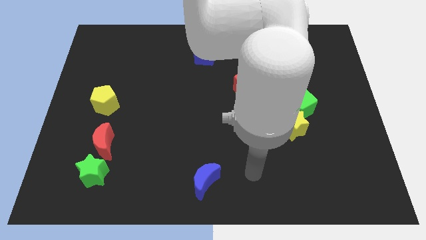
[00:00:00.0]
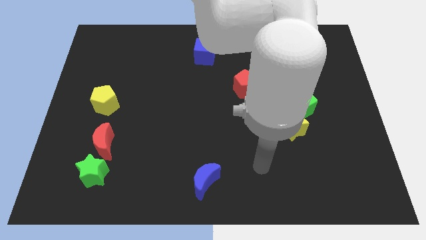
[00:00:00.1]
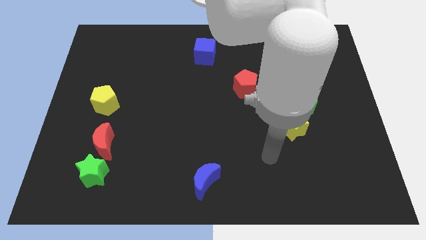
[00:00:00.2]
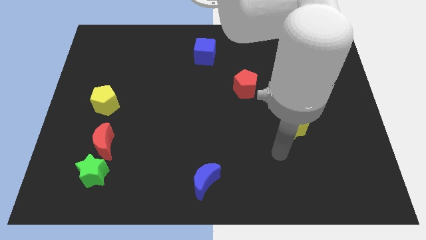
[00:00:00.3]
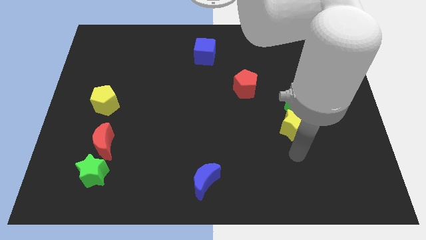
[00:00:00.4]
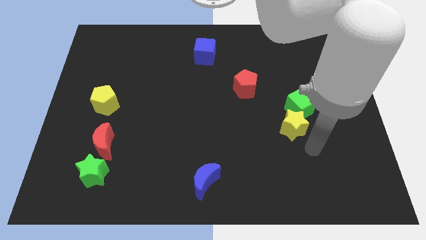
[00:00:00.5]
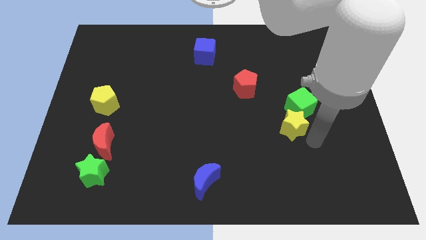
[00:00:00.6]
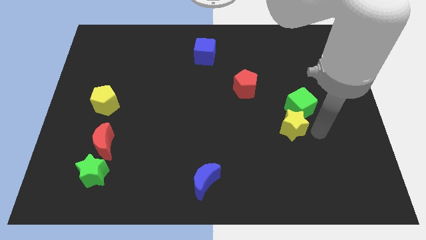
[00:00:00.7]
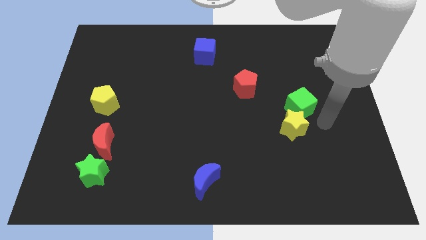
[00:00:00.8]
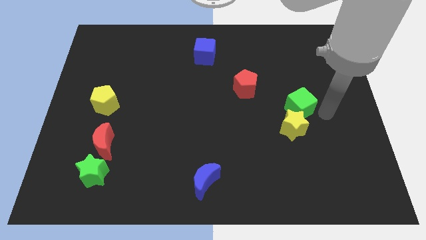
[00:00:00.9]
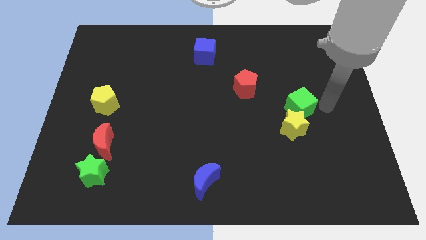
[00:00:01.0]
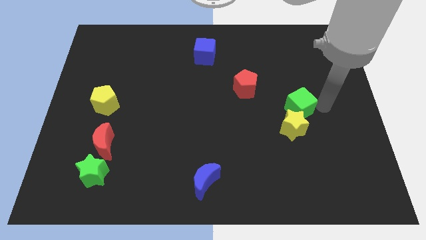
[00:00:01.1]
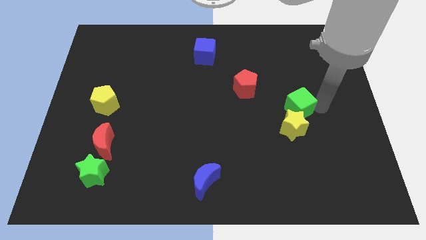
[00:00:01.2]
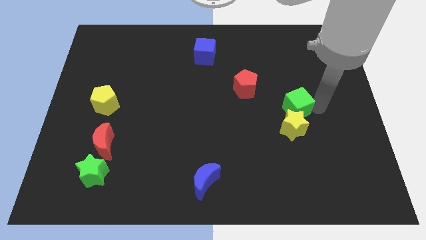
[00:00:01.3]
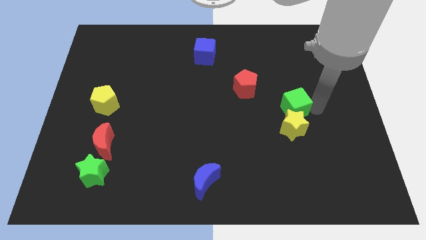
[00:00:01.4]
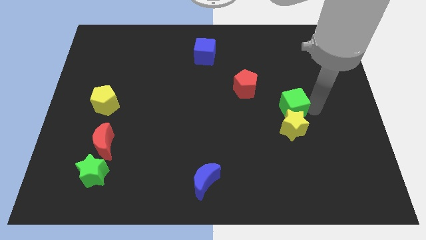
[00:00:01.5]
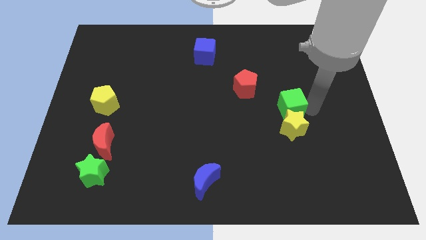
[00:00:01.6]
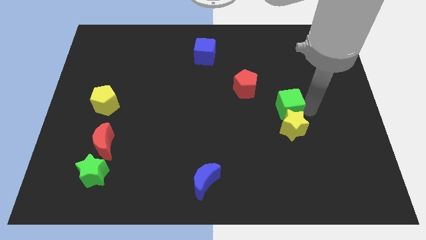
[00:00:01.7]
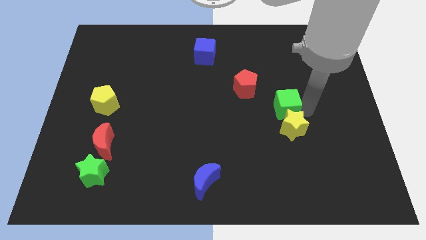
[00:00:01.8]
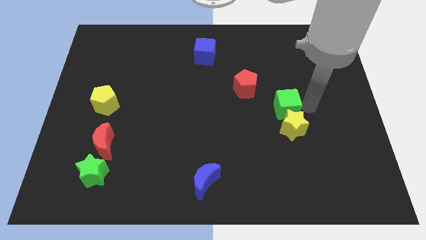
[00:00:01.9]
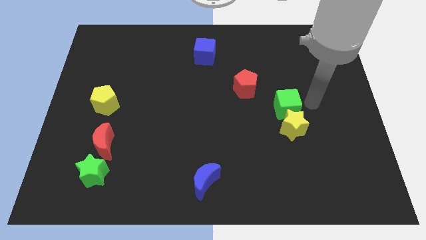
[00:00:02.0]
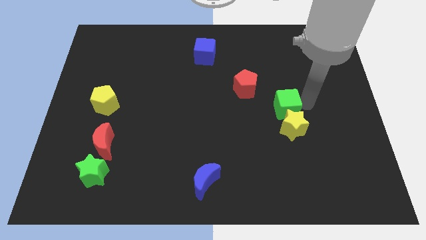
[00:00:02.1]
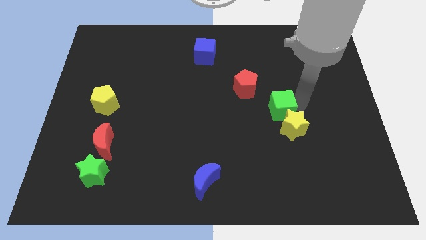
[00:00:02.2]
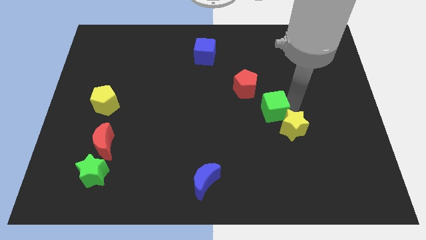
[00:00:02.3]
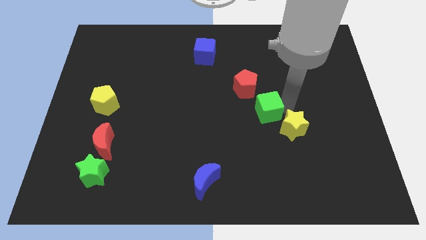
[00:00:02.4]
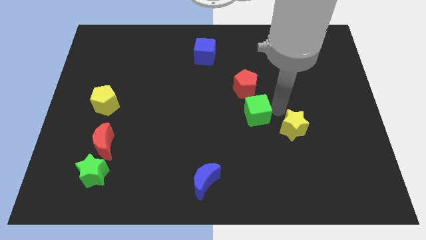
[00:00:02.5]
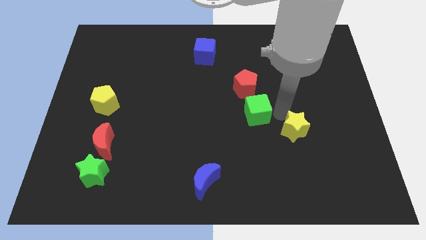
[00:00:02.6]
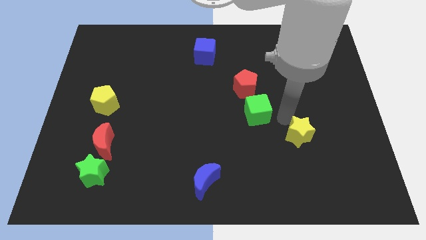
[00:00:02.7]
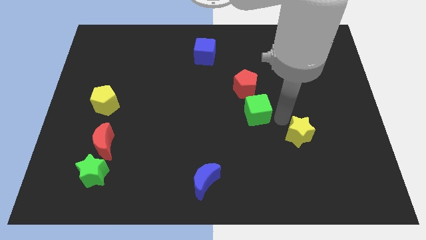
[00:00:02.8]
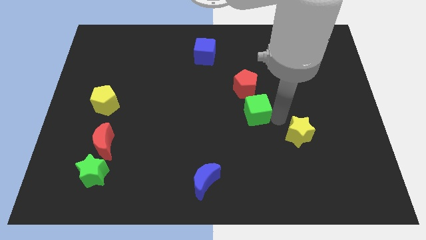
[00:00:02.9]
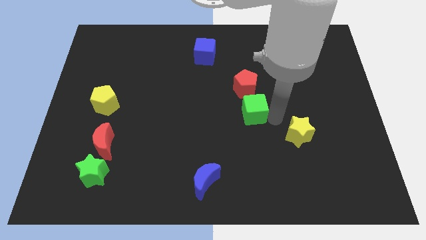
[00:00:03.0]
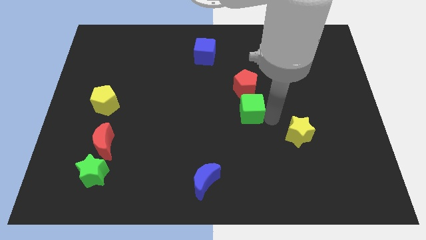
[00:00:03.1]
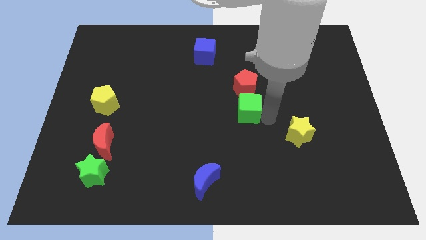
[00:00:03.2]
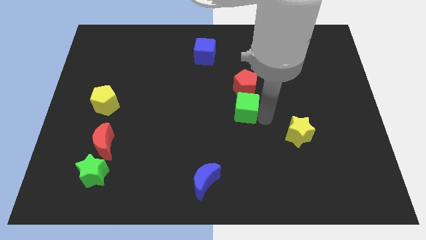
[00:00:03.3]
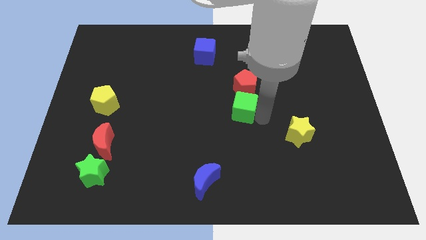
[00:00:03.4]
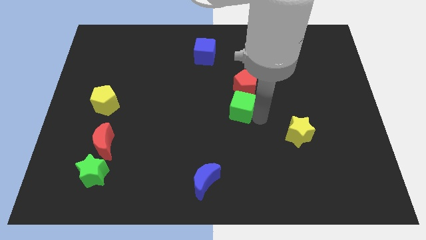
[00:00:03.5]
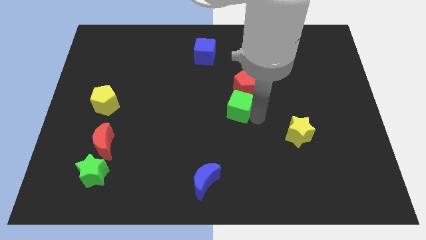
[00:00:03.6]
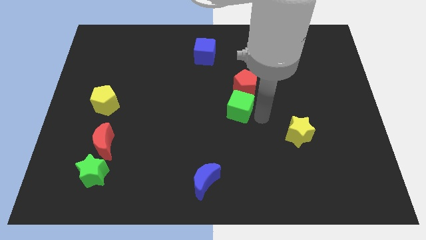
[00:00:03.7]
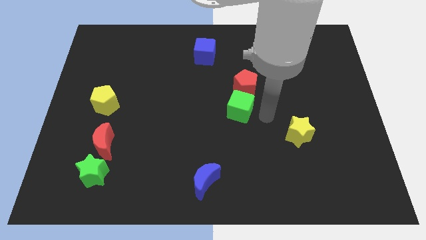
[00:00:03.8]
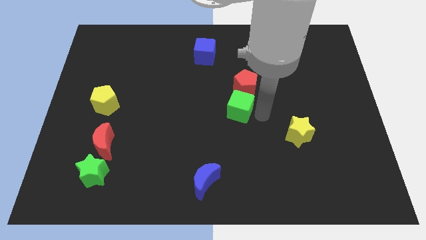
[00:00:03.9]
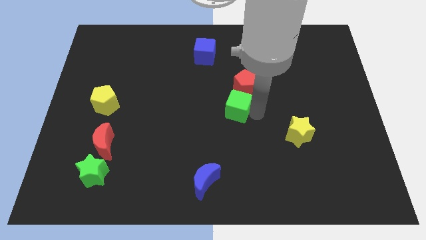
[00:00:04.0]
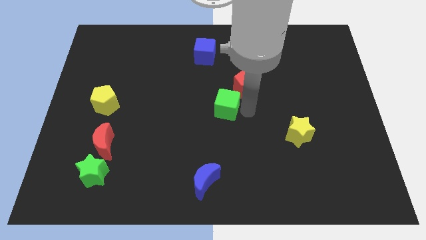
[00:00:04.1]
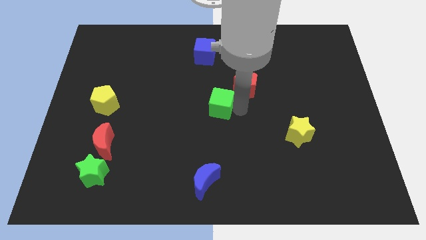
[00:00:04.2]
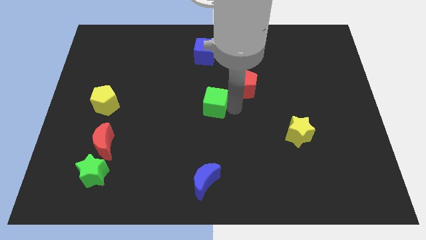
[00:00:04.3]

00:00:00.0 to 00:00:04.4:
slide the green cube to the left

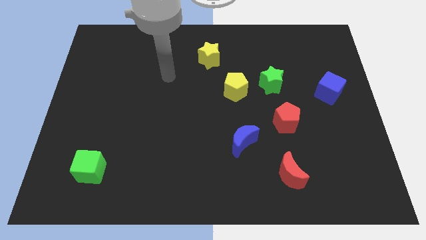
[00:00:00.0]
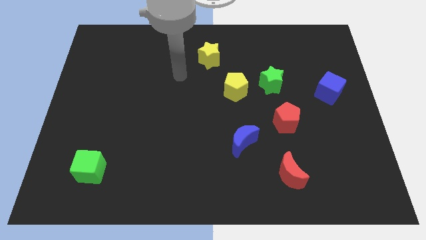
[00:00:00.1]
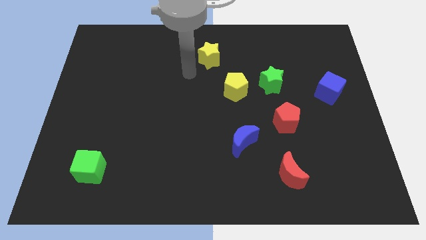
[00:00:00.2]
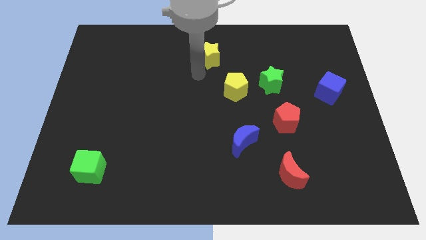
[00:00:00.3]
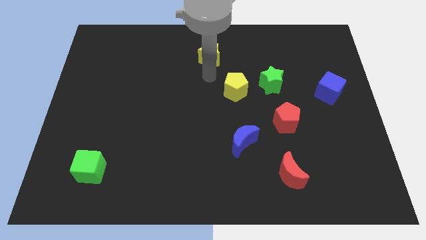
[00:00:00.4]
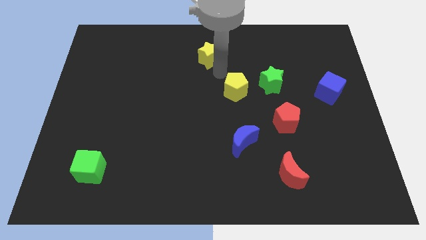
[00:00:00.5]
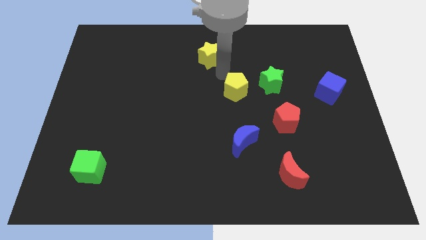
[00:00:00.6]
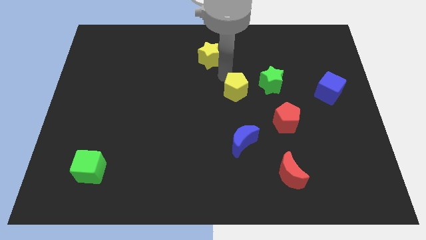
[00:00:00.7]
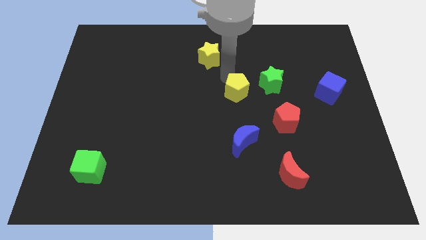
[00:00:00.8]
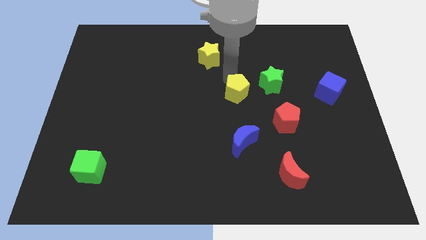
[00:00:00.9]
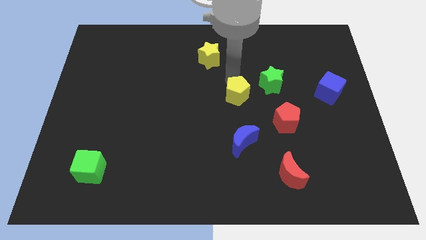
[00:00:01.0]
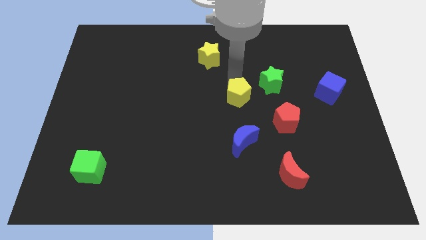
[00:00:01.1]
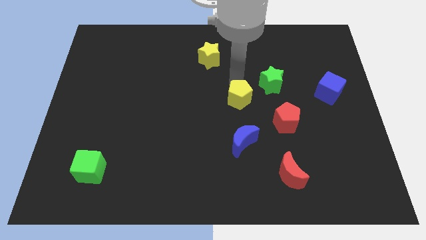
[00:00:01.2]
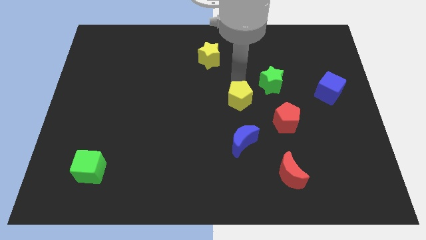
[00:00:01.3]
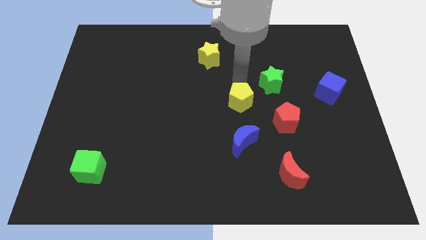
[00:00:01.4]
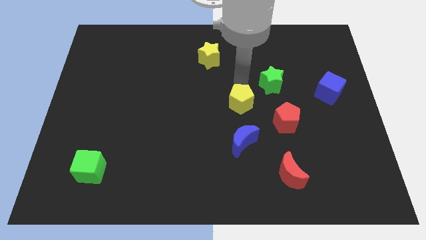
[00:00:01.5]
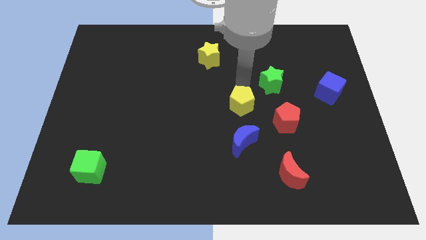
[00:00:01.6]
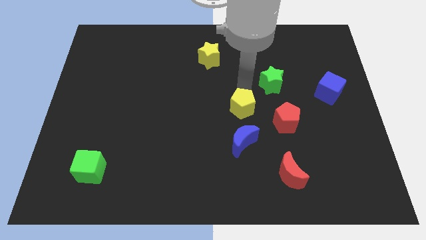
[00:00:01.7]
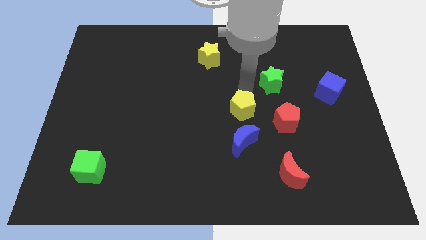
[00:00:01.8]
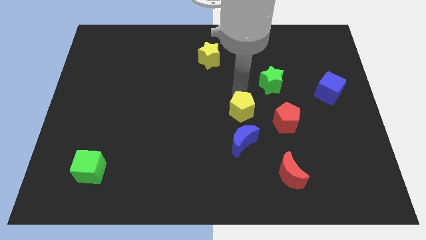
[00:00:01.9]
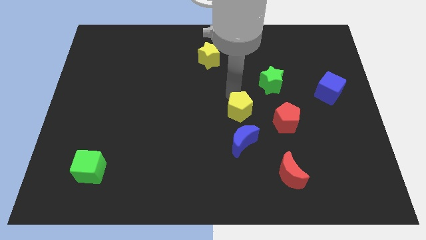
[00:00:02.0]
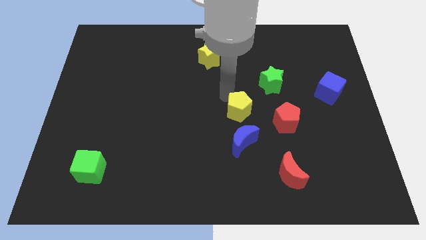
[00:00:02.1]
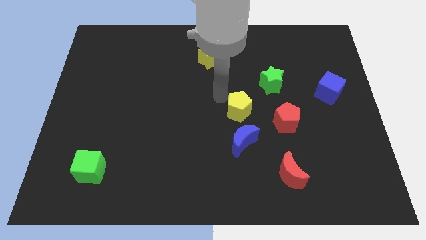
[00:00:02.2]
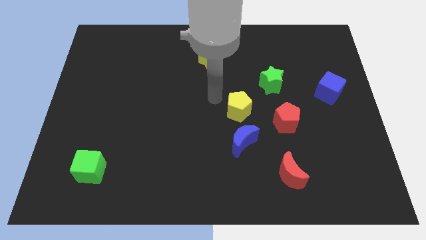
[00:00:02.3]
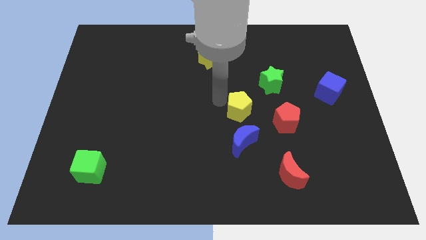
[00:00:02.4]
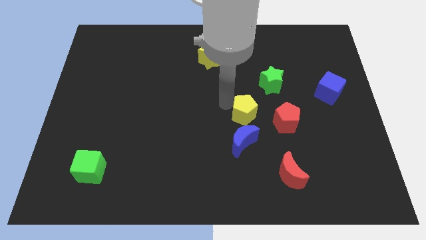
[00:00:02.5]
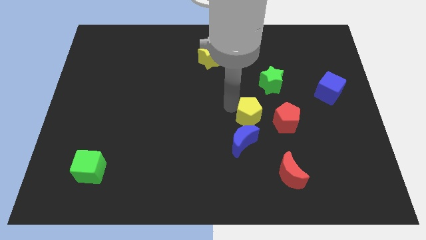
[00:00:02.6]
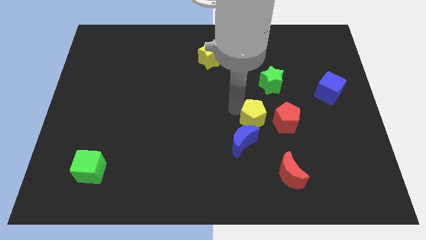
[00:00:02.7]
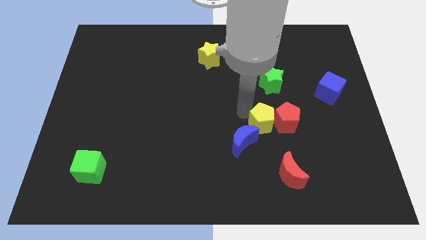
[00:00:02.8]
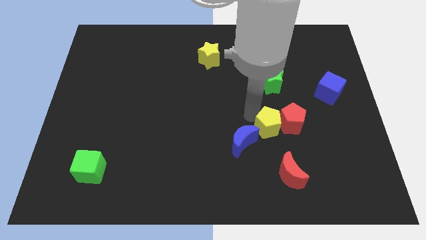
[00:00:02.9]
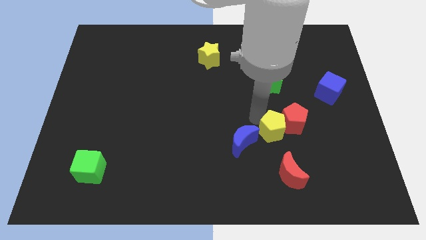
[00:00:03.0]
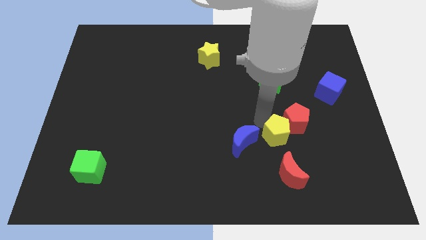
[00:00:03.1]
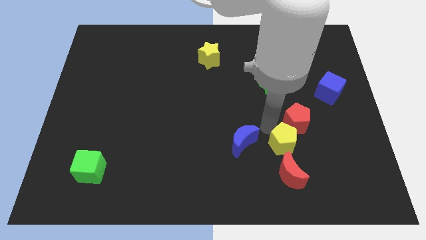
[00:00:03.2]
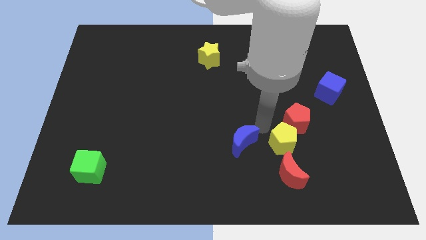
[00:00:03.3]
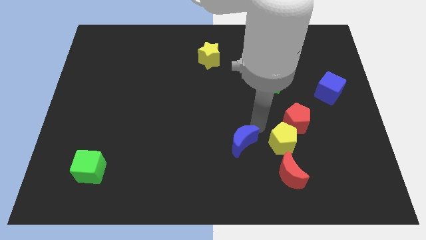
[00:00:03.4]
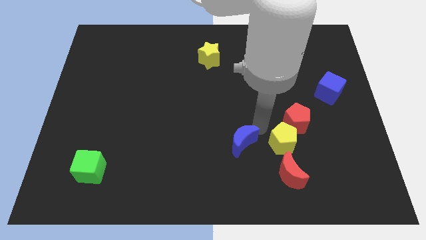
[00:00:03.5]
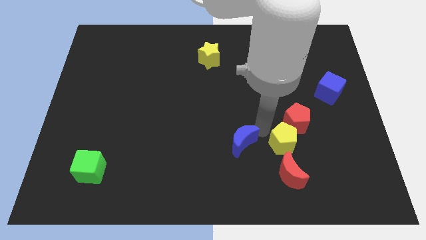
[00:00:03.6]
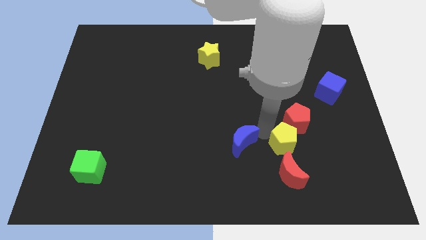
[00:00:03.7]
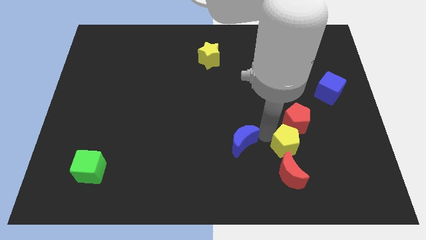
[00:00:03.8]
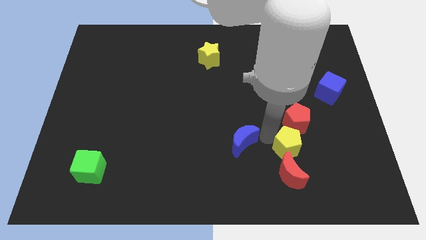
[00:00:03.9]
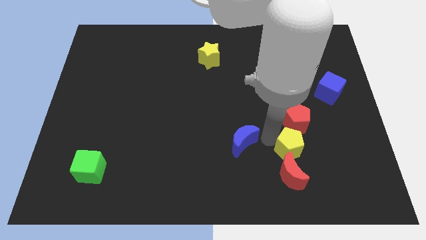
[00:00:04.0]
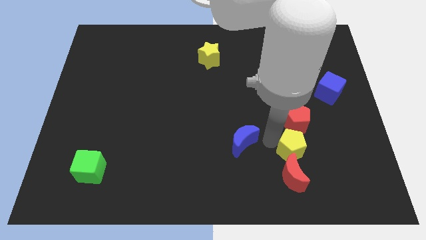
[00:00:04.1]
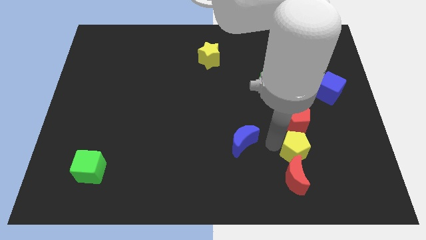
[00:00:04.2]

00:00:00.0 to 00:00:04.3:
slide the yellow pentagon downwards and right diagonally
